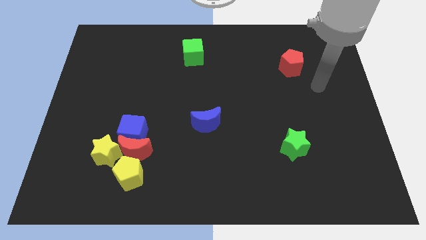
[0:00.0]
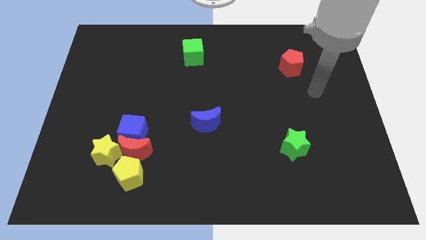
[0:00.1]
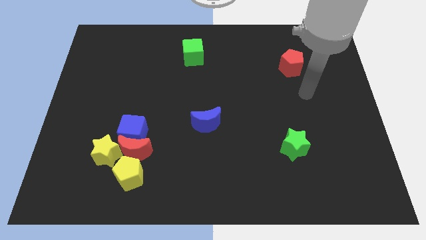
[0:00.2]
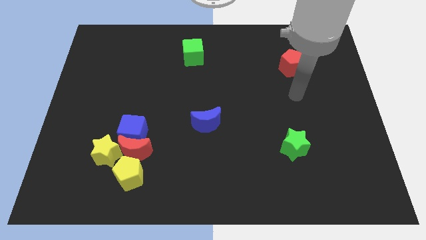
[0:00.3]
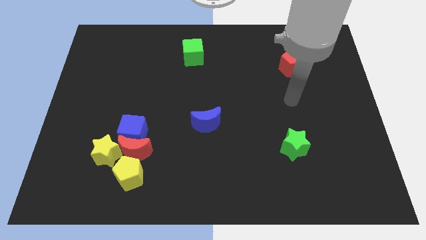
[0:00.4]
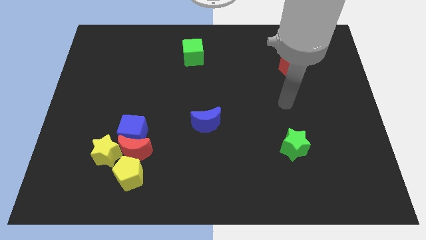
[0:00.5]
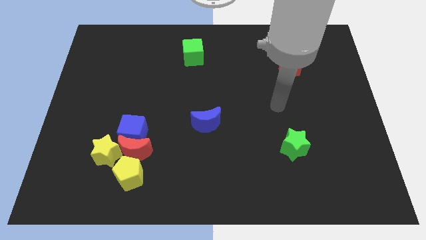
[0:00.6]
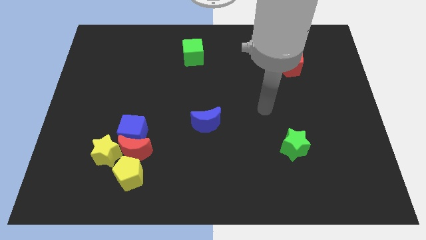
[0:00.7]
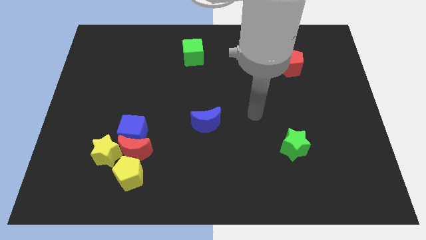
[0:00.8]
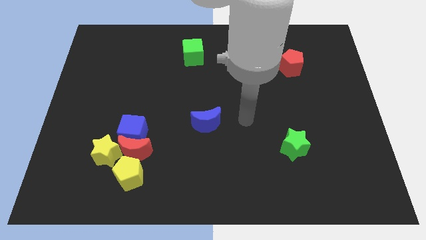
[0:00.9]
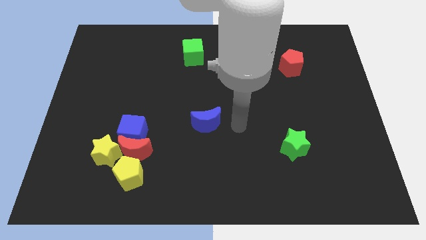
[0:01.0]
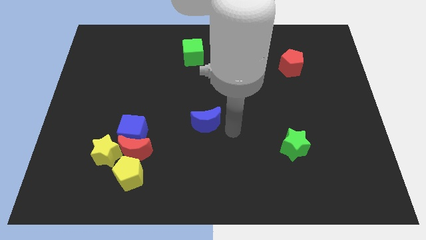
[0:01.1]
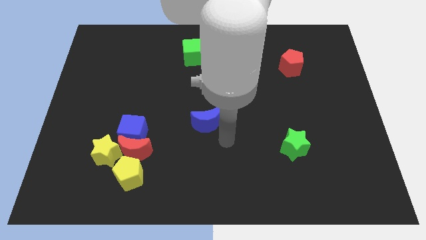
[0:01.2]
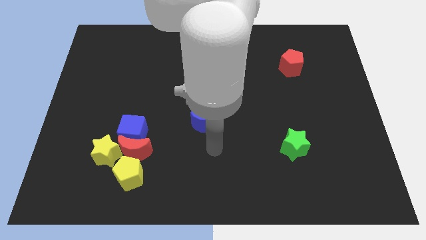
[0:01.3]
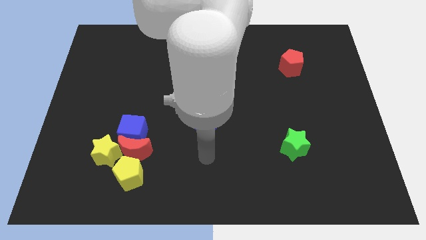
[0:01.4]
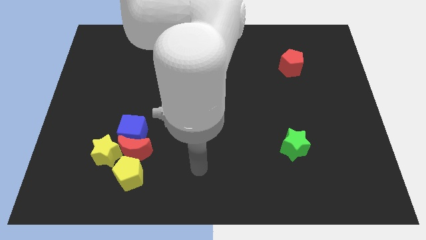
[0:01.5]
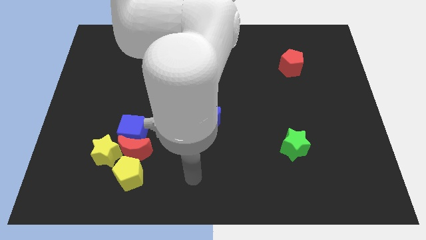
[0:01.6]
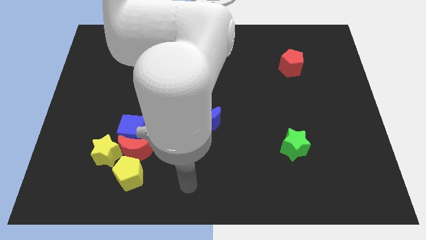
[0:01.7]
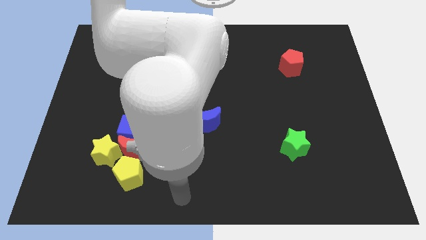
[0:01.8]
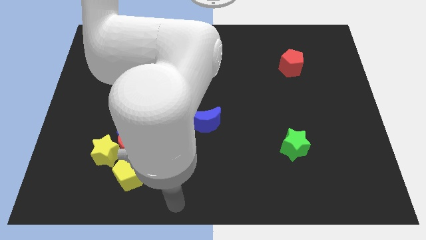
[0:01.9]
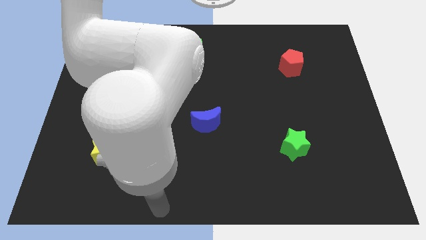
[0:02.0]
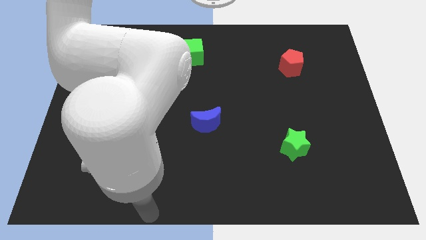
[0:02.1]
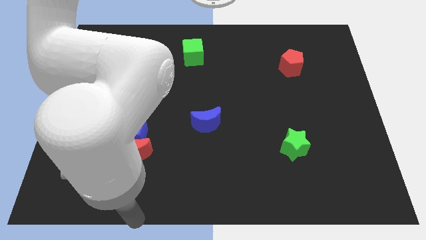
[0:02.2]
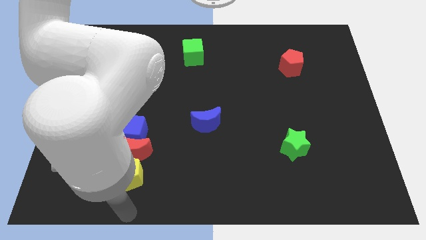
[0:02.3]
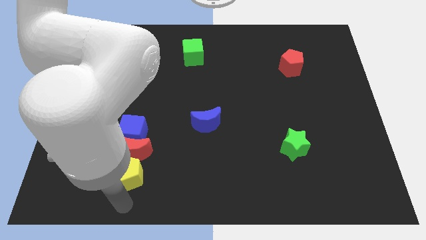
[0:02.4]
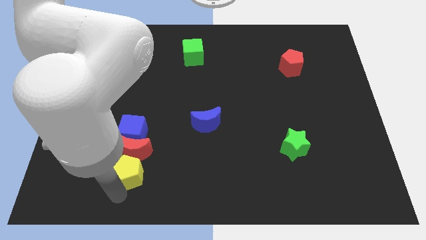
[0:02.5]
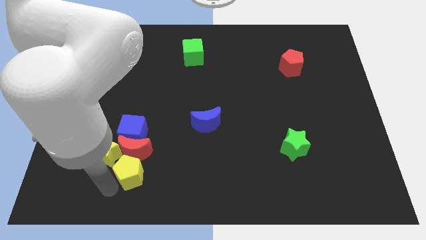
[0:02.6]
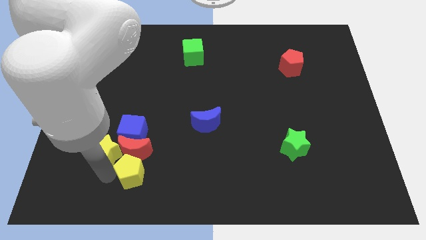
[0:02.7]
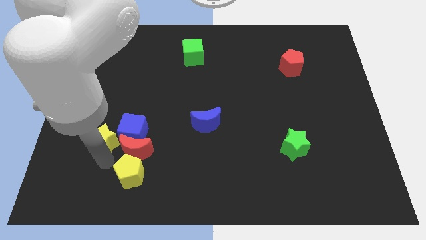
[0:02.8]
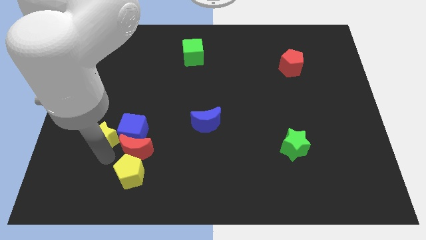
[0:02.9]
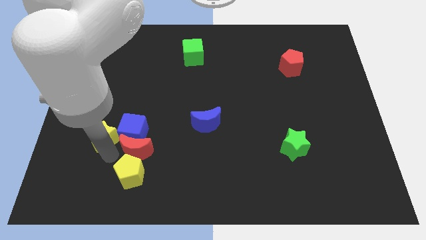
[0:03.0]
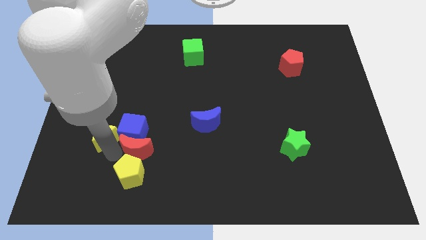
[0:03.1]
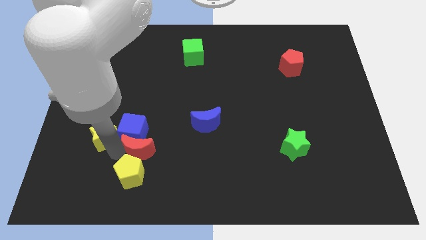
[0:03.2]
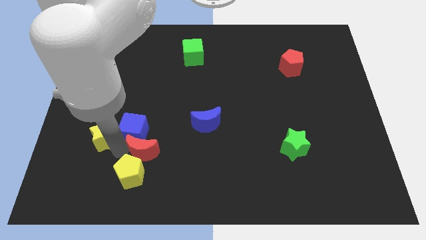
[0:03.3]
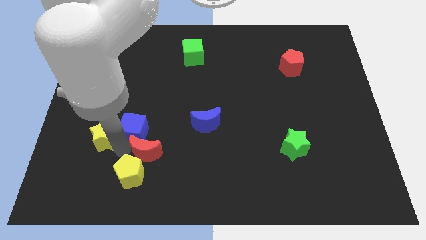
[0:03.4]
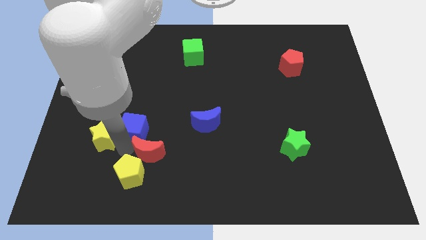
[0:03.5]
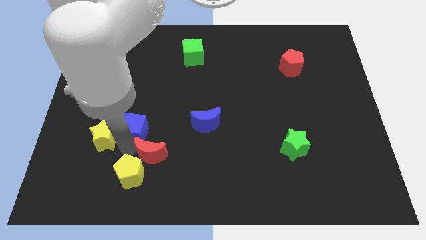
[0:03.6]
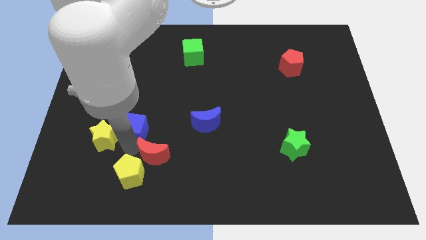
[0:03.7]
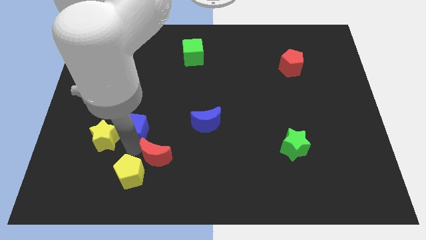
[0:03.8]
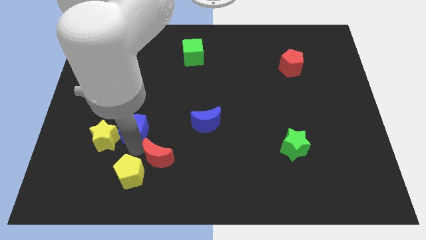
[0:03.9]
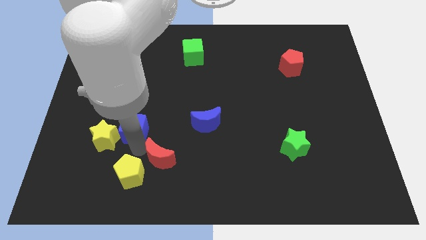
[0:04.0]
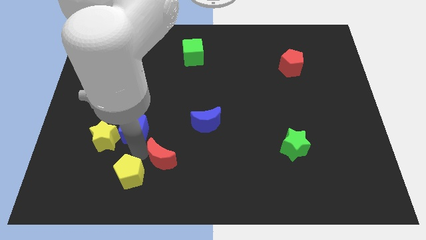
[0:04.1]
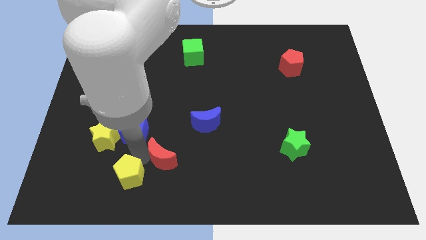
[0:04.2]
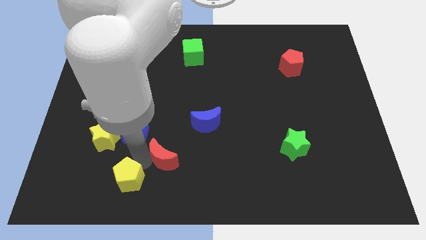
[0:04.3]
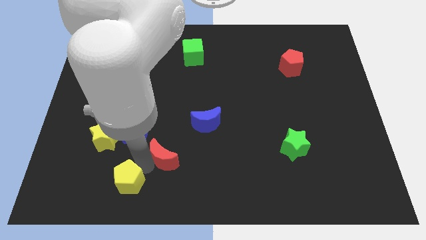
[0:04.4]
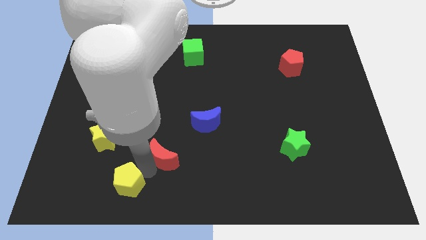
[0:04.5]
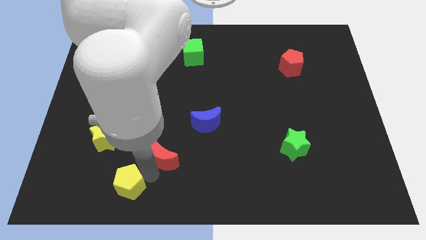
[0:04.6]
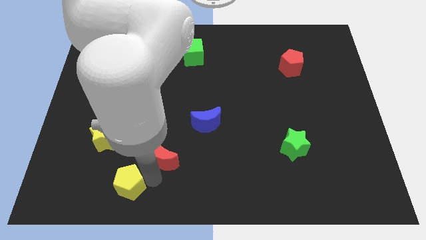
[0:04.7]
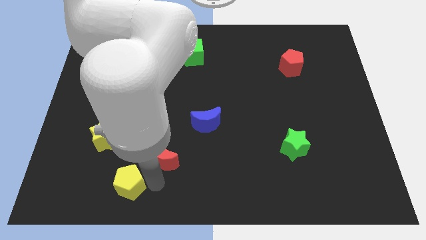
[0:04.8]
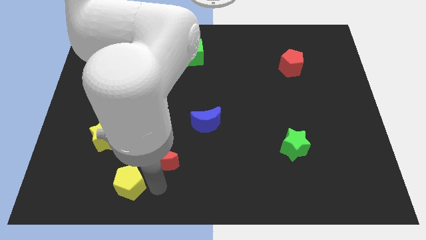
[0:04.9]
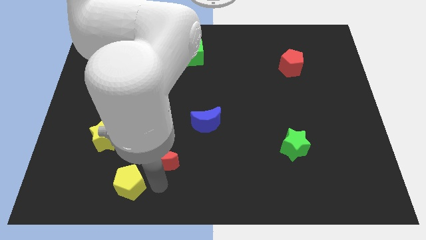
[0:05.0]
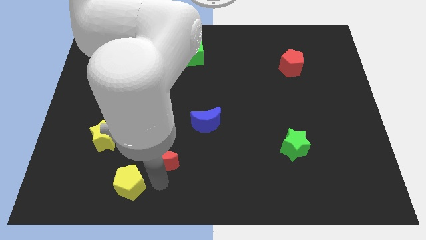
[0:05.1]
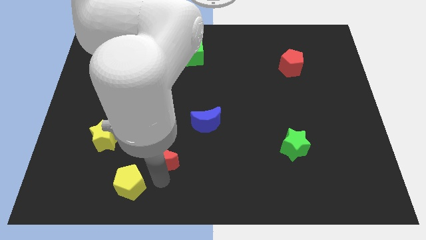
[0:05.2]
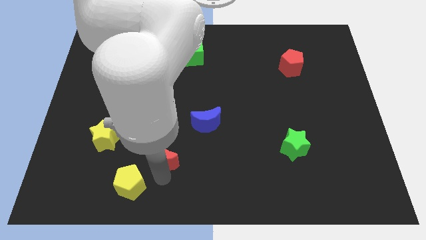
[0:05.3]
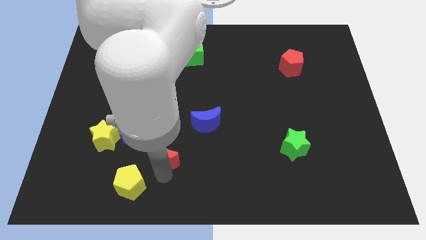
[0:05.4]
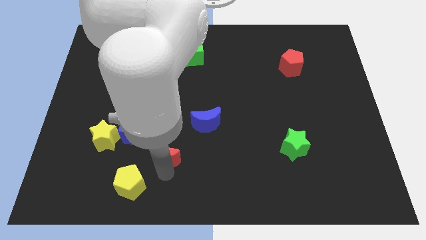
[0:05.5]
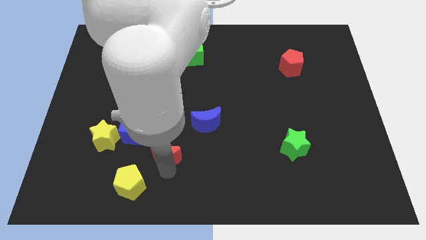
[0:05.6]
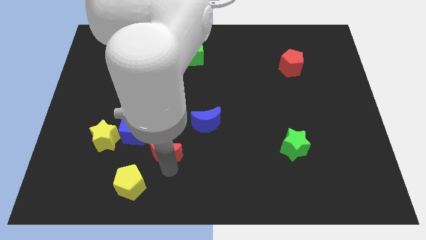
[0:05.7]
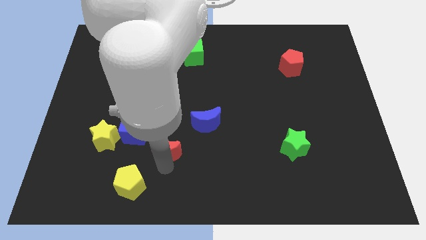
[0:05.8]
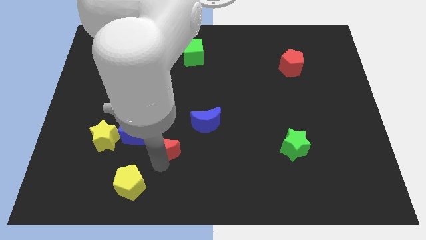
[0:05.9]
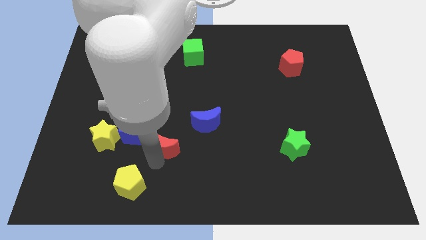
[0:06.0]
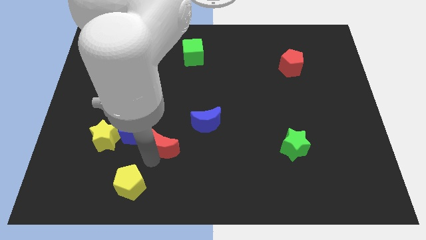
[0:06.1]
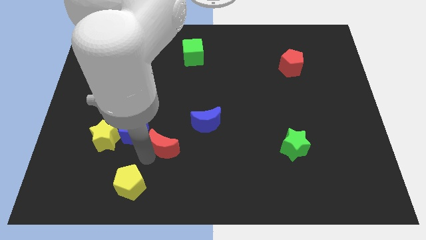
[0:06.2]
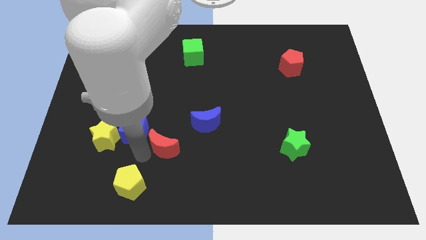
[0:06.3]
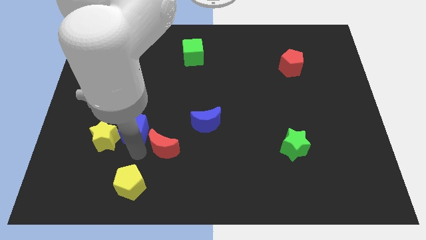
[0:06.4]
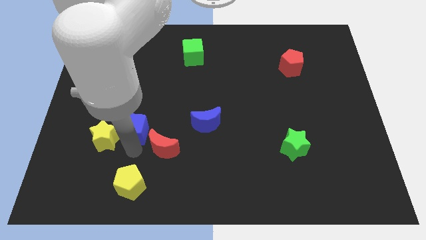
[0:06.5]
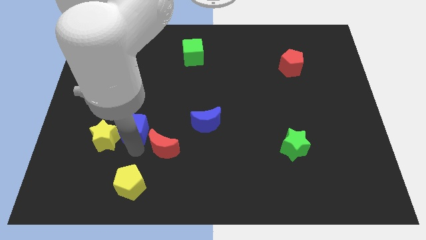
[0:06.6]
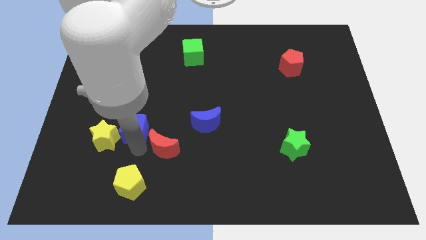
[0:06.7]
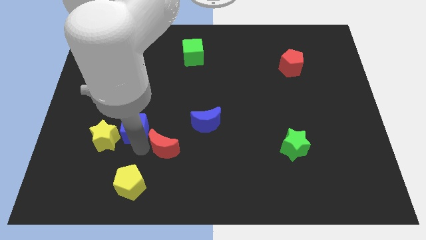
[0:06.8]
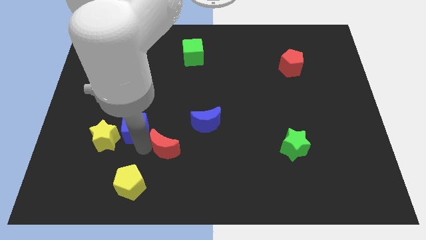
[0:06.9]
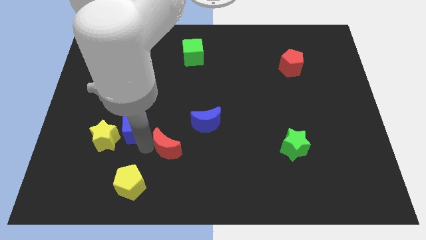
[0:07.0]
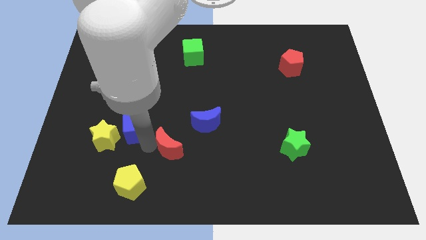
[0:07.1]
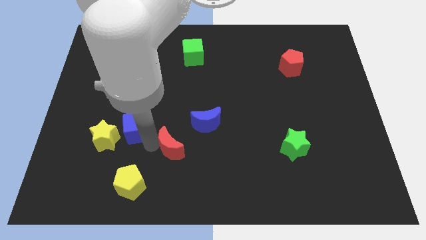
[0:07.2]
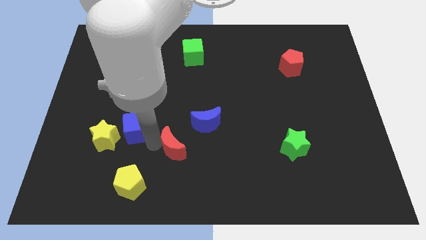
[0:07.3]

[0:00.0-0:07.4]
pull the red moon apart from the blue cube, yellow pentagon, and yellow star

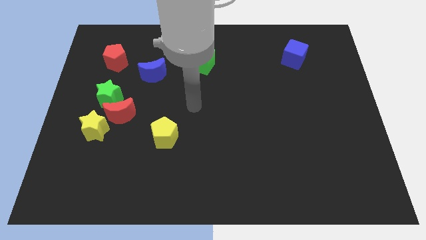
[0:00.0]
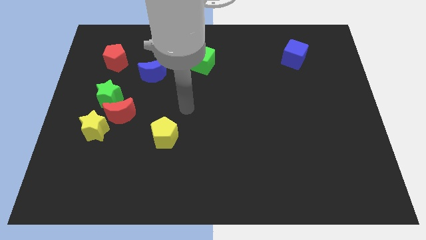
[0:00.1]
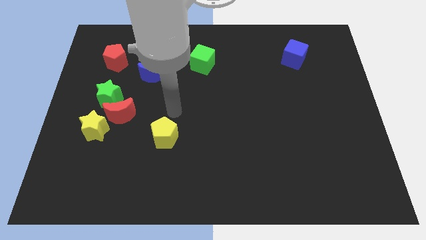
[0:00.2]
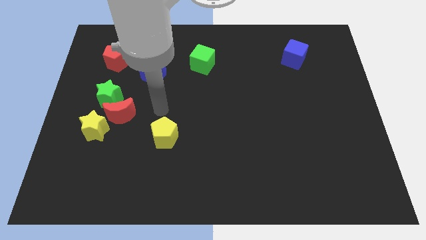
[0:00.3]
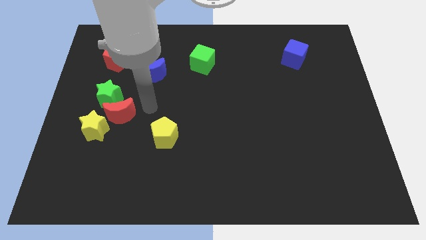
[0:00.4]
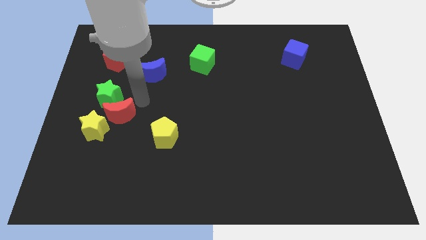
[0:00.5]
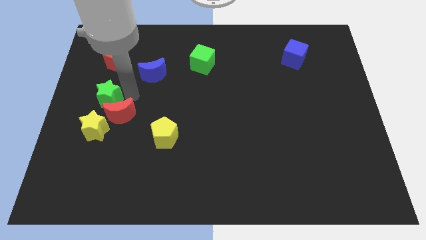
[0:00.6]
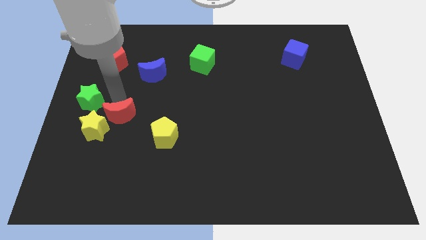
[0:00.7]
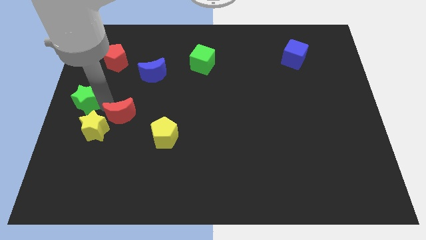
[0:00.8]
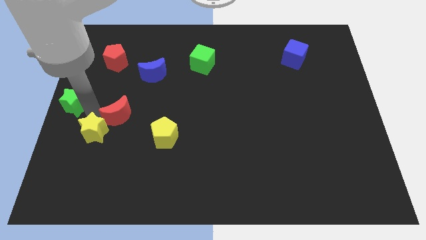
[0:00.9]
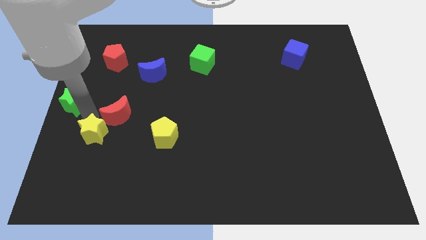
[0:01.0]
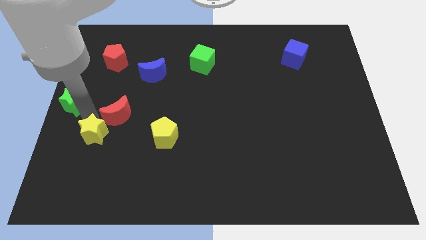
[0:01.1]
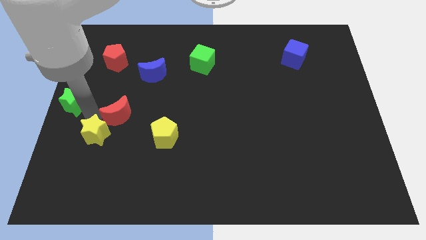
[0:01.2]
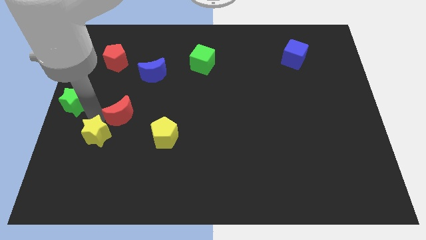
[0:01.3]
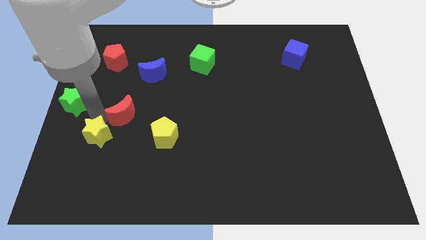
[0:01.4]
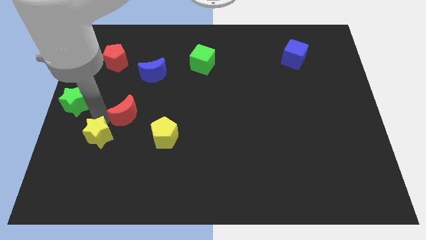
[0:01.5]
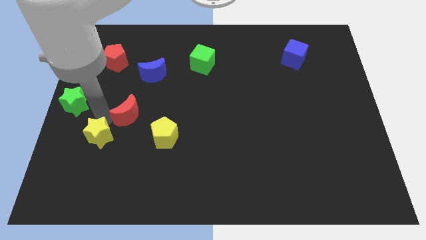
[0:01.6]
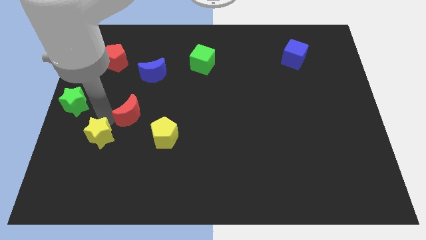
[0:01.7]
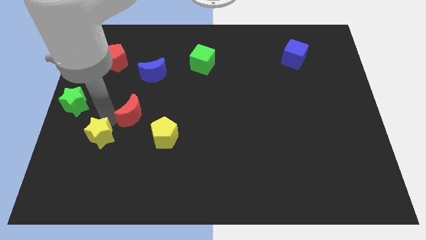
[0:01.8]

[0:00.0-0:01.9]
pull the red moon apart from the green star and yellow star

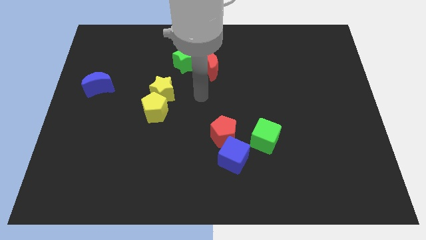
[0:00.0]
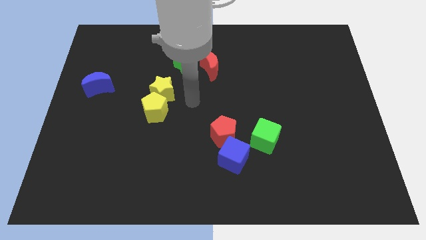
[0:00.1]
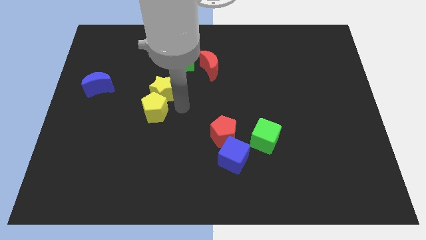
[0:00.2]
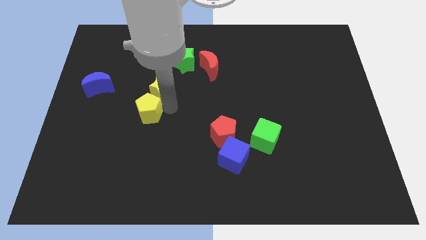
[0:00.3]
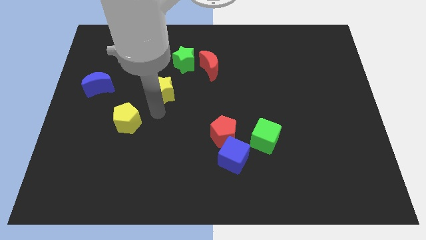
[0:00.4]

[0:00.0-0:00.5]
separate the yellow star from the yellow pentagon
